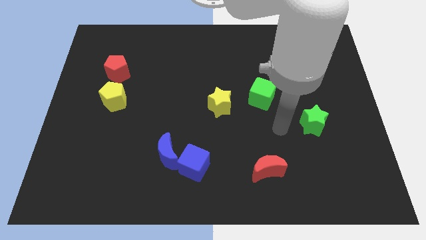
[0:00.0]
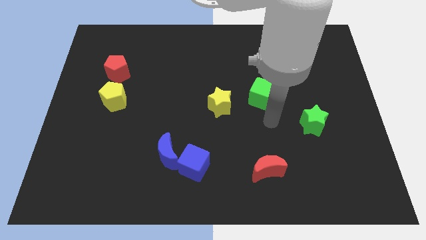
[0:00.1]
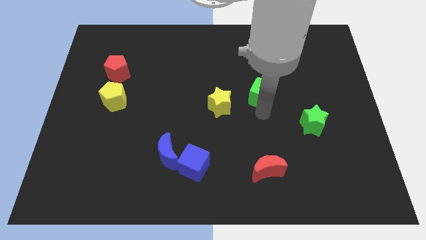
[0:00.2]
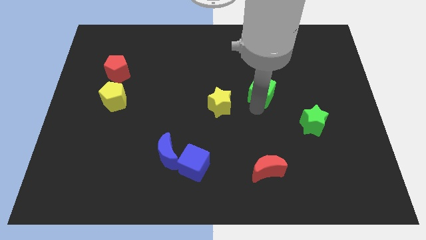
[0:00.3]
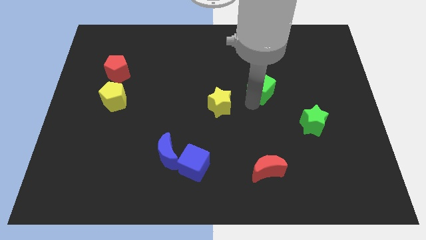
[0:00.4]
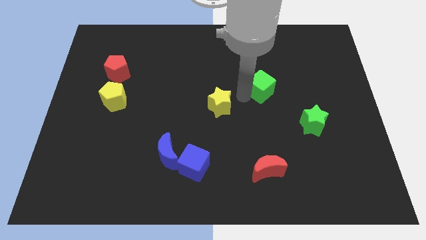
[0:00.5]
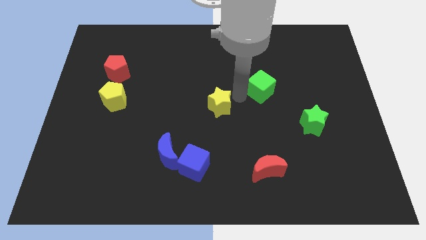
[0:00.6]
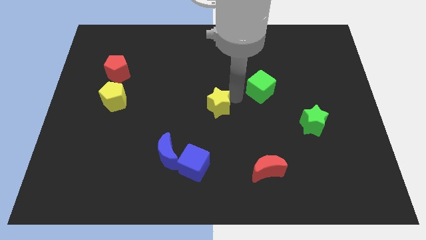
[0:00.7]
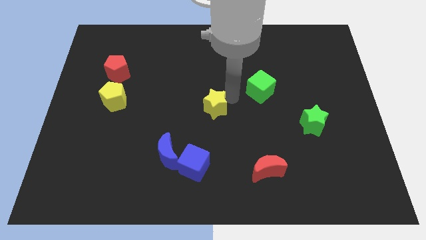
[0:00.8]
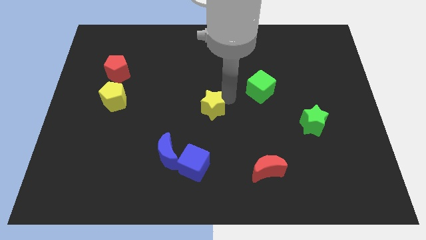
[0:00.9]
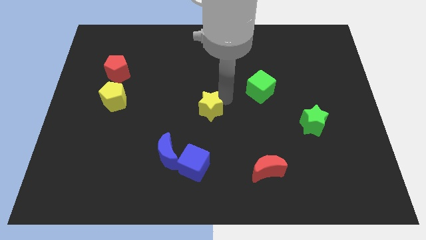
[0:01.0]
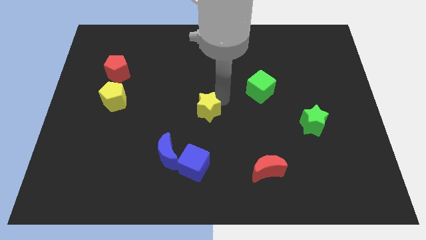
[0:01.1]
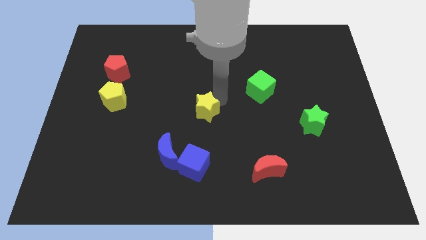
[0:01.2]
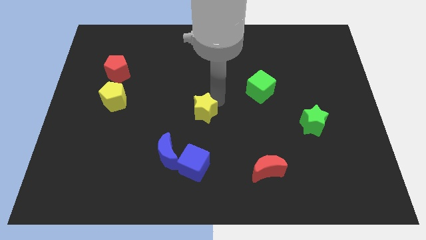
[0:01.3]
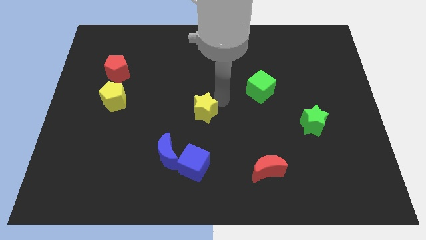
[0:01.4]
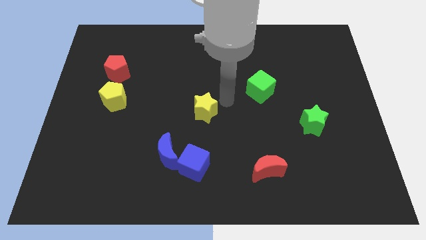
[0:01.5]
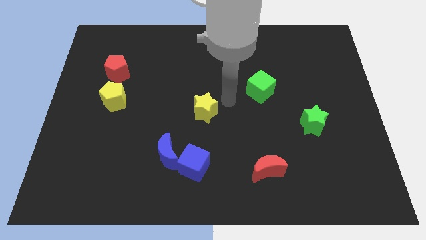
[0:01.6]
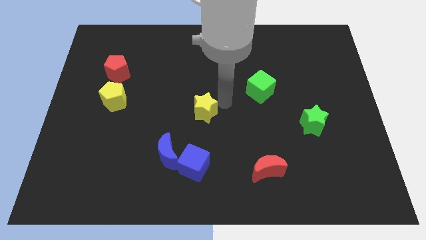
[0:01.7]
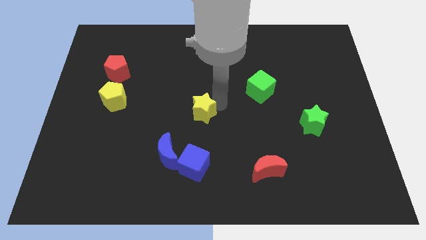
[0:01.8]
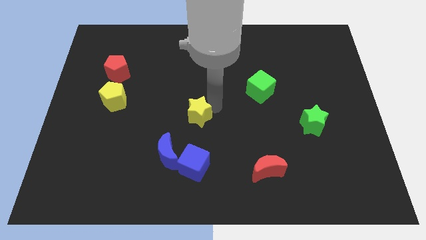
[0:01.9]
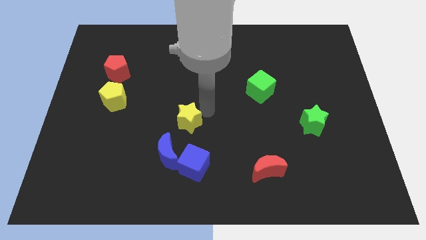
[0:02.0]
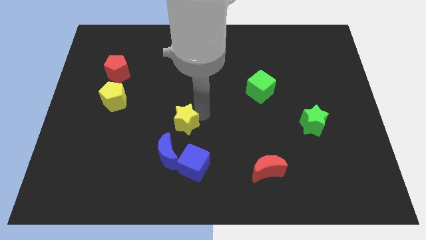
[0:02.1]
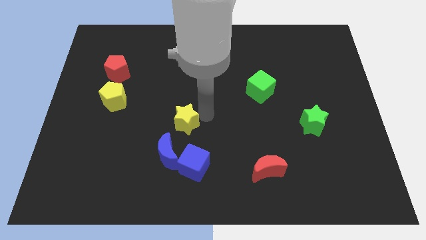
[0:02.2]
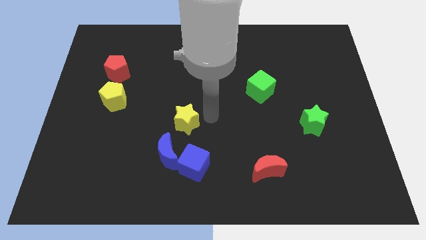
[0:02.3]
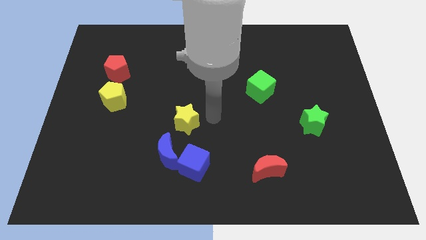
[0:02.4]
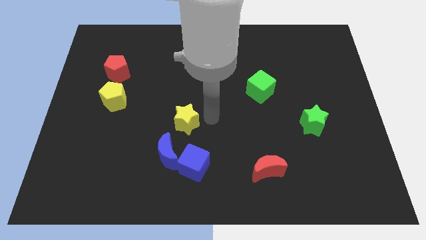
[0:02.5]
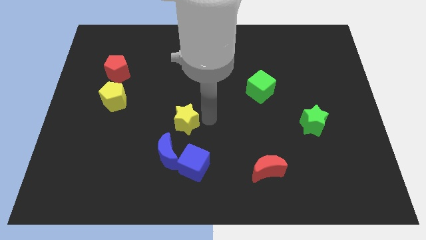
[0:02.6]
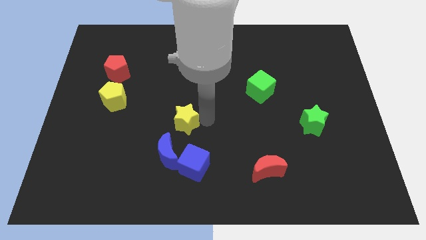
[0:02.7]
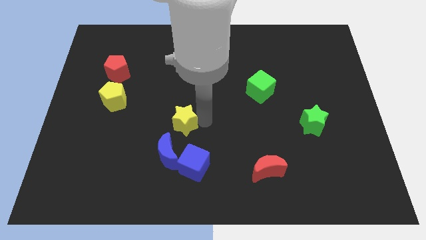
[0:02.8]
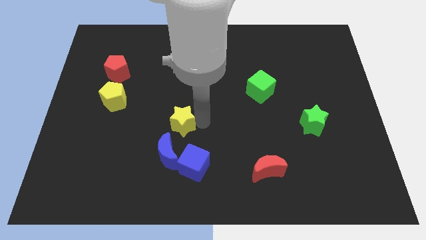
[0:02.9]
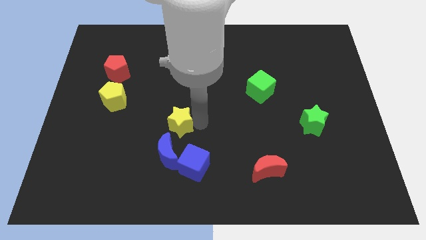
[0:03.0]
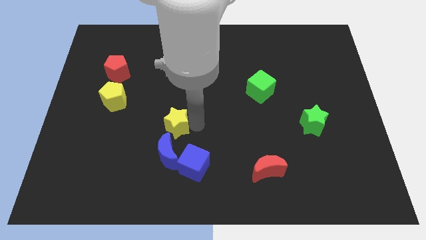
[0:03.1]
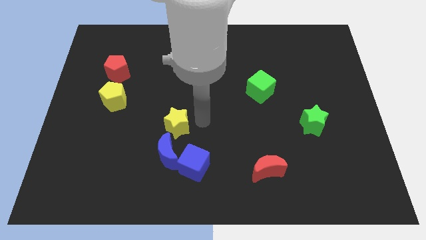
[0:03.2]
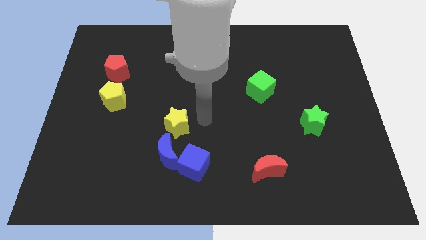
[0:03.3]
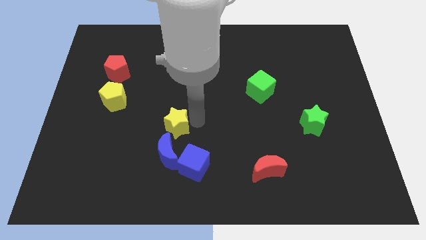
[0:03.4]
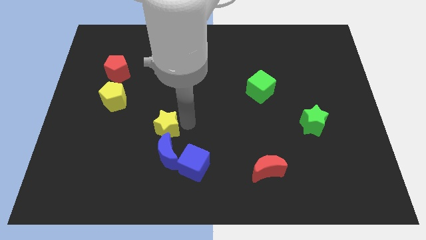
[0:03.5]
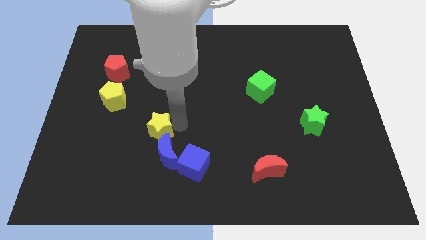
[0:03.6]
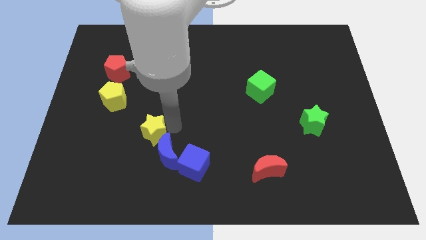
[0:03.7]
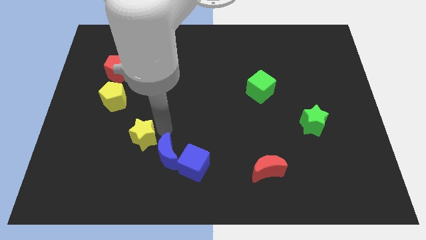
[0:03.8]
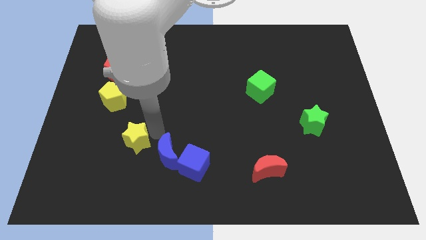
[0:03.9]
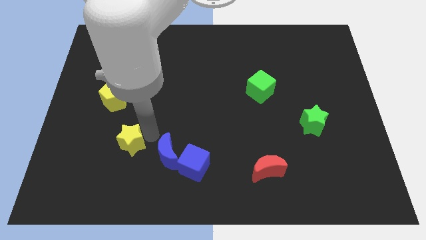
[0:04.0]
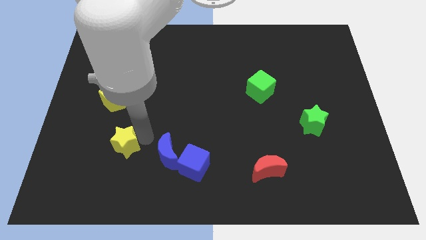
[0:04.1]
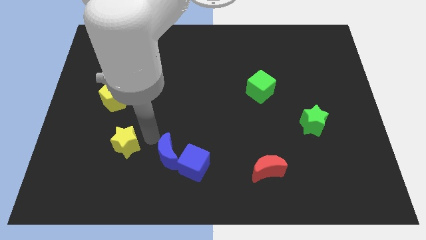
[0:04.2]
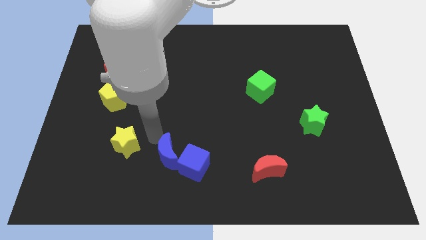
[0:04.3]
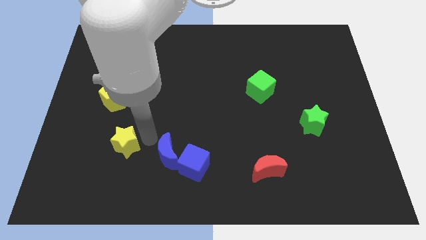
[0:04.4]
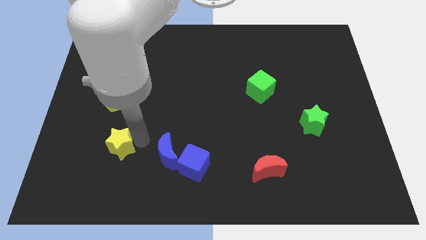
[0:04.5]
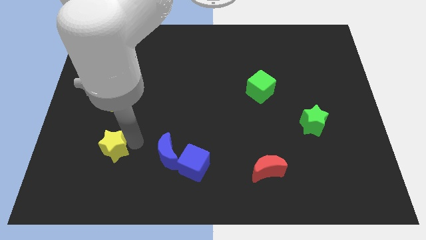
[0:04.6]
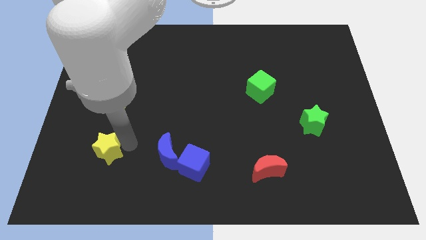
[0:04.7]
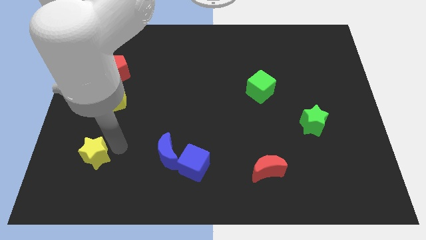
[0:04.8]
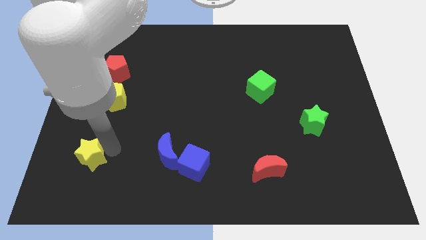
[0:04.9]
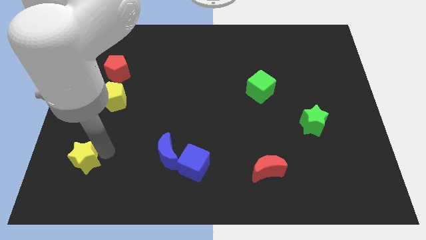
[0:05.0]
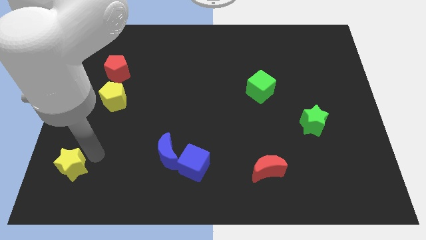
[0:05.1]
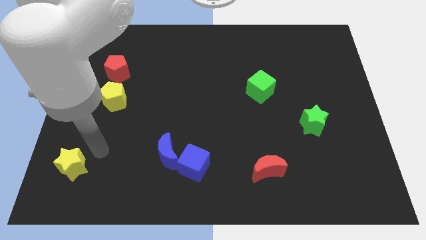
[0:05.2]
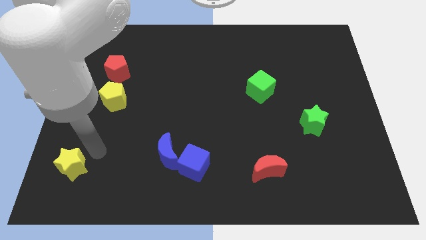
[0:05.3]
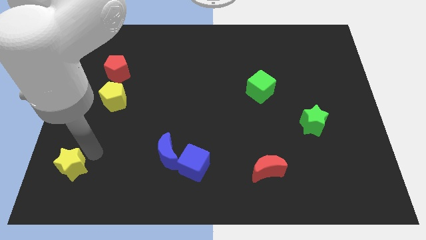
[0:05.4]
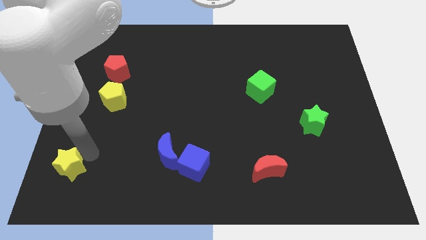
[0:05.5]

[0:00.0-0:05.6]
move the yellow star to the bottom left corner

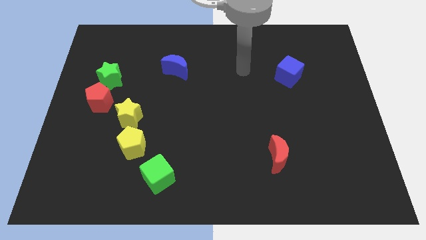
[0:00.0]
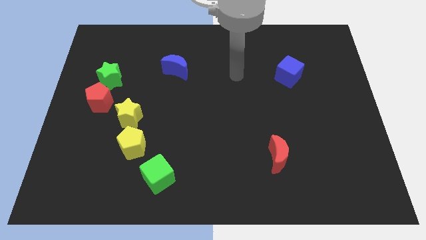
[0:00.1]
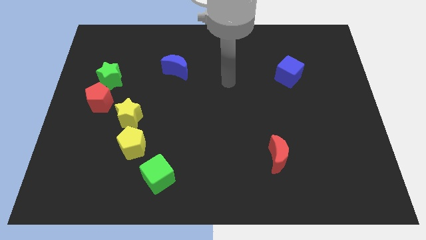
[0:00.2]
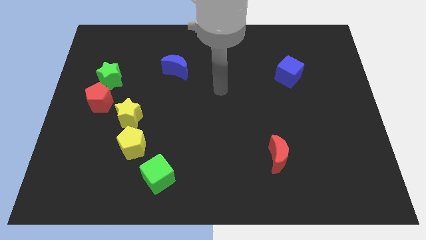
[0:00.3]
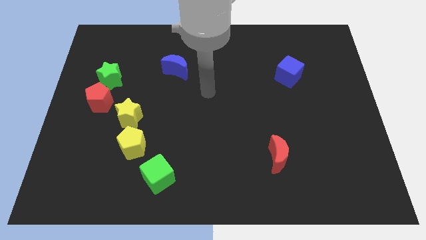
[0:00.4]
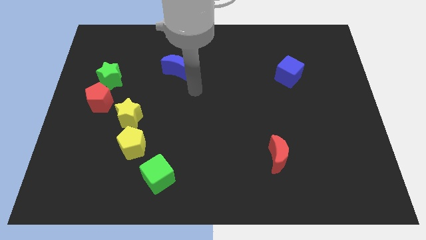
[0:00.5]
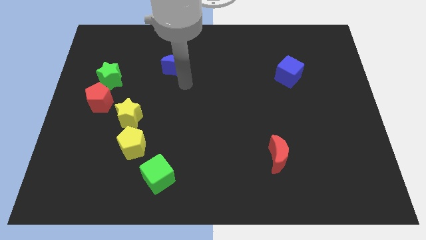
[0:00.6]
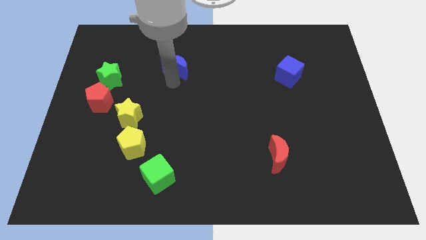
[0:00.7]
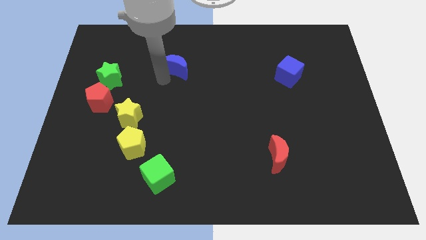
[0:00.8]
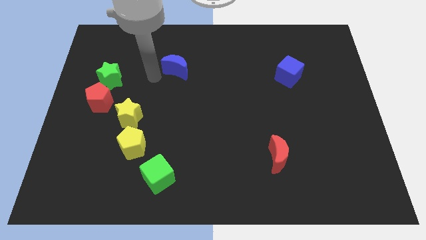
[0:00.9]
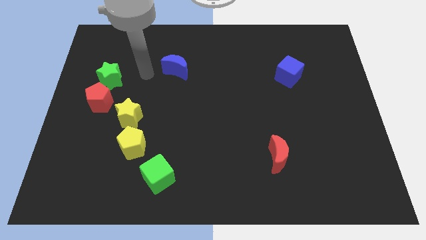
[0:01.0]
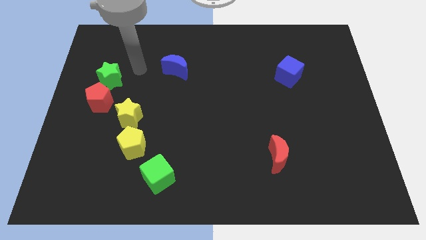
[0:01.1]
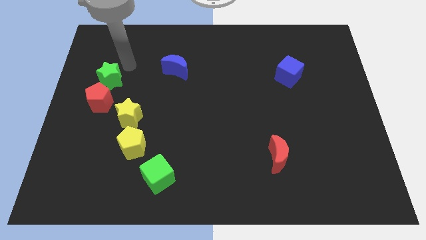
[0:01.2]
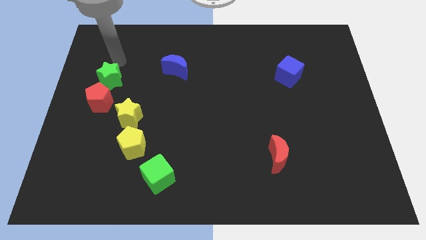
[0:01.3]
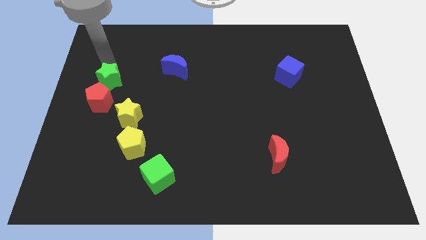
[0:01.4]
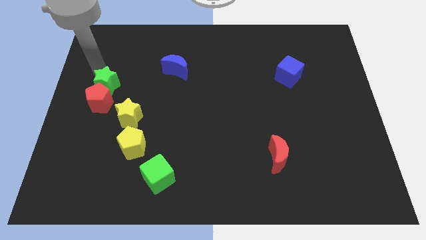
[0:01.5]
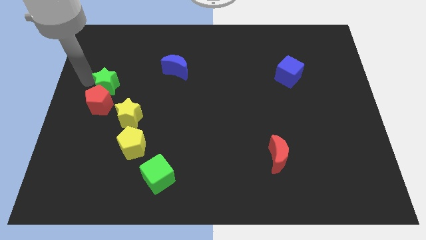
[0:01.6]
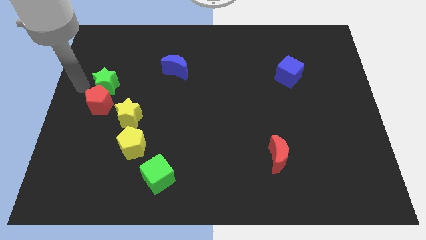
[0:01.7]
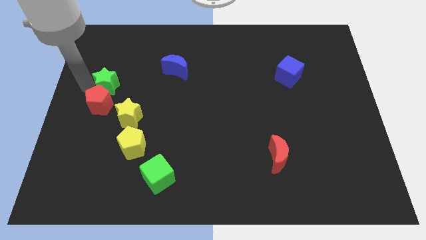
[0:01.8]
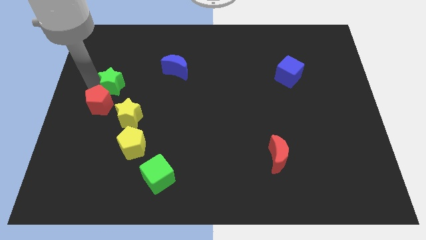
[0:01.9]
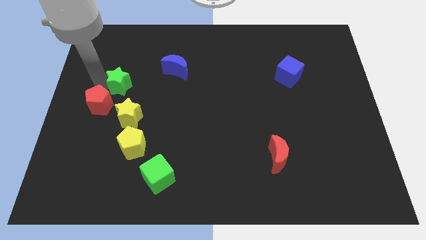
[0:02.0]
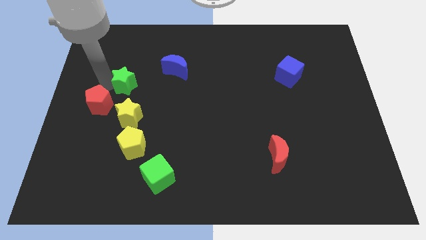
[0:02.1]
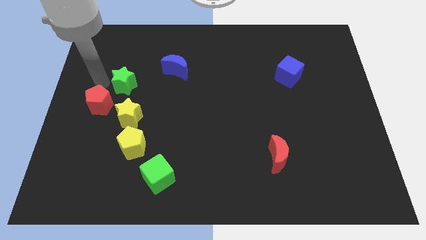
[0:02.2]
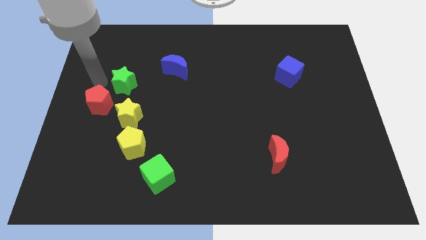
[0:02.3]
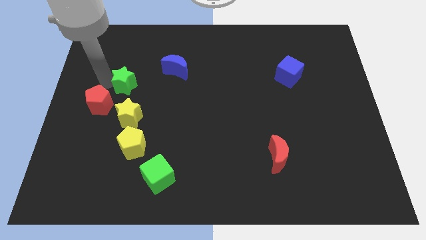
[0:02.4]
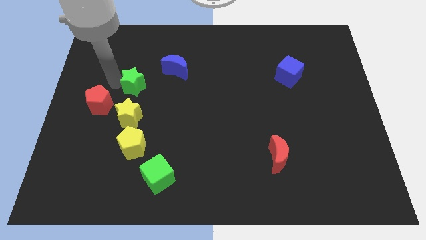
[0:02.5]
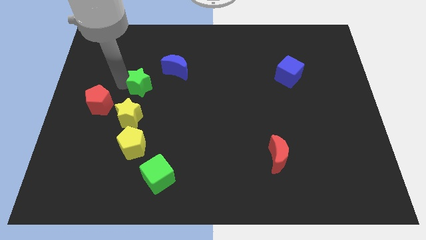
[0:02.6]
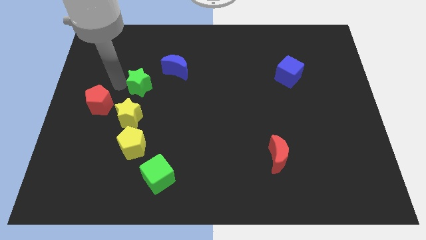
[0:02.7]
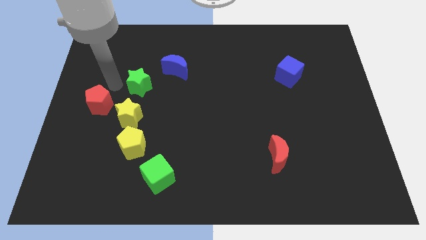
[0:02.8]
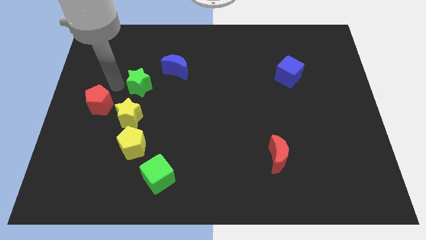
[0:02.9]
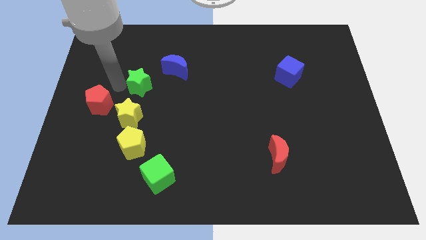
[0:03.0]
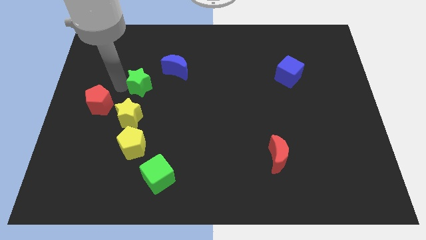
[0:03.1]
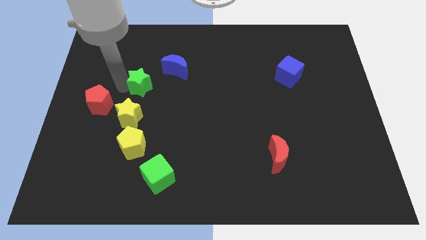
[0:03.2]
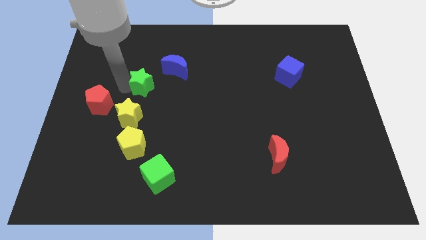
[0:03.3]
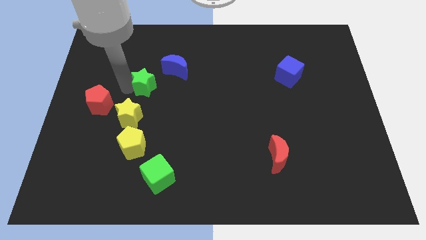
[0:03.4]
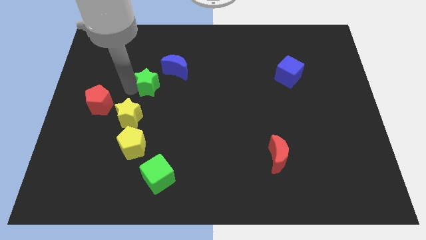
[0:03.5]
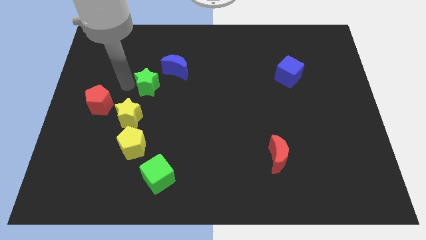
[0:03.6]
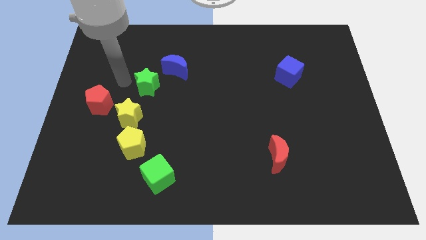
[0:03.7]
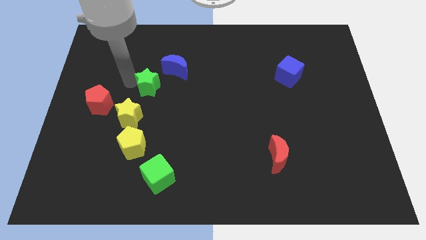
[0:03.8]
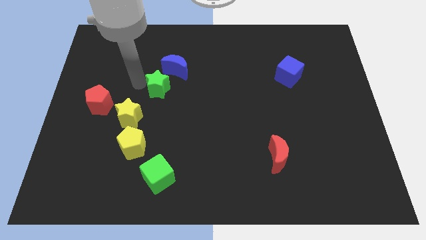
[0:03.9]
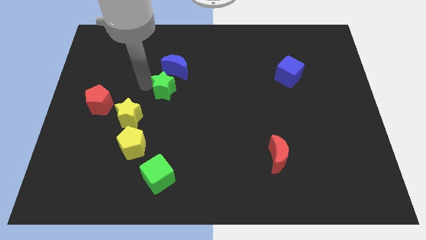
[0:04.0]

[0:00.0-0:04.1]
put the green star to the middle of the board
